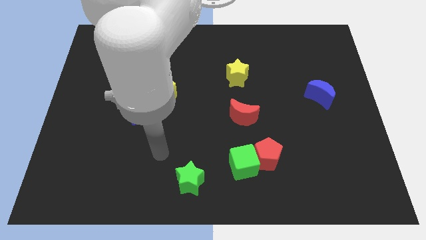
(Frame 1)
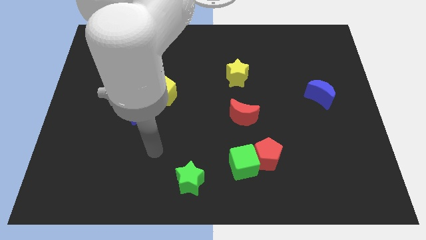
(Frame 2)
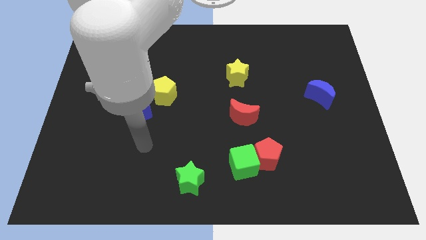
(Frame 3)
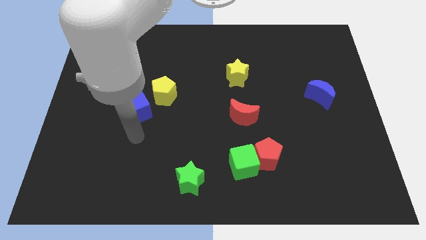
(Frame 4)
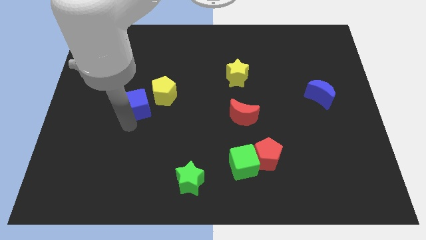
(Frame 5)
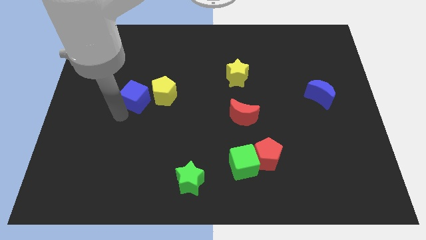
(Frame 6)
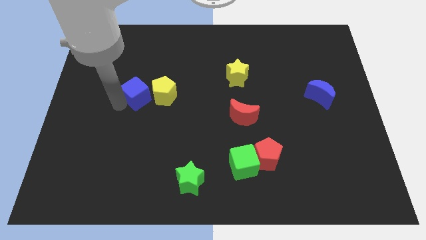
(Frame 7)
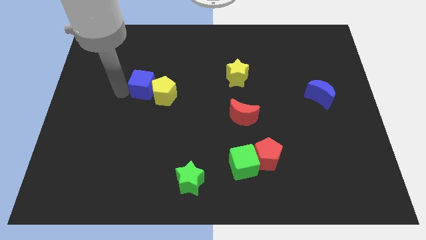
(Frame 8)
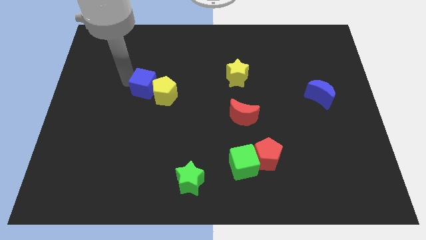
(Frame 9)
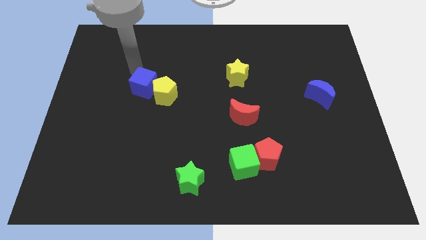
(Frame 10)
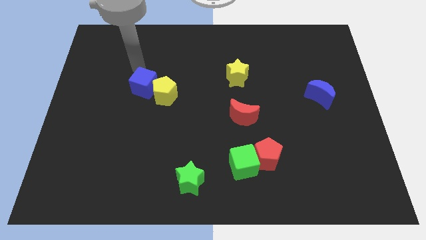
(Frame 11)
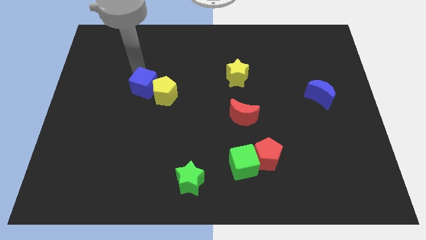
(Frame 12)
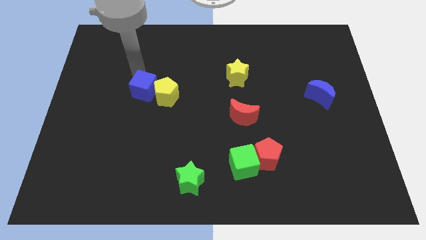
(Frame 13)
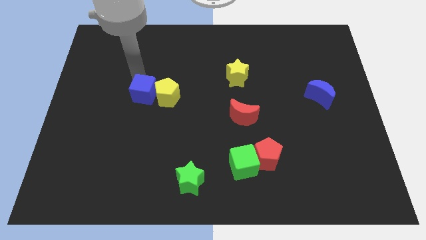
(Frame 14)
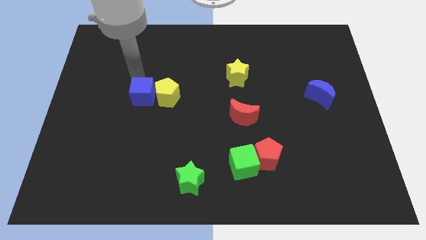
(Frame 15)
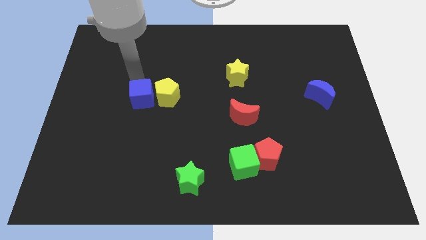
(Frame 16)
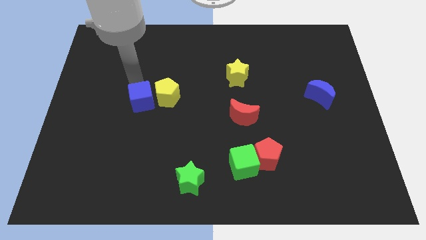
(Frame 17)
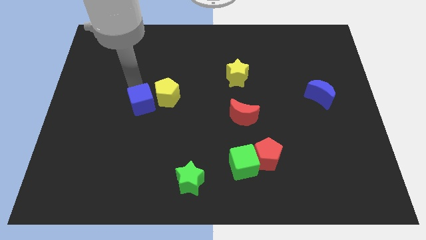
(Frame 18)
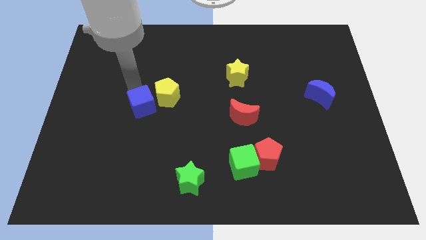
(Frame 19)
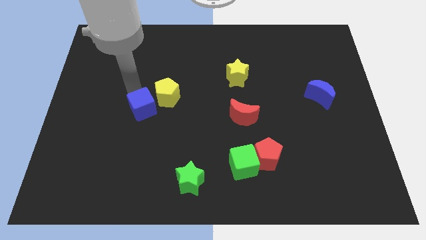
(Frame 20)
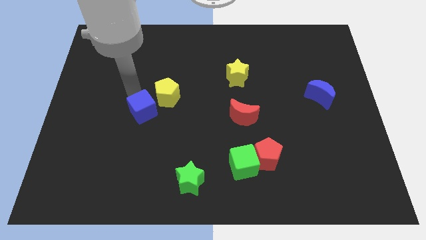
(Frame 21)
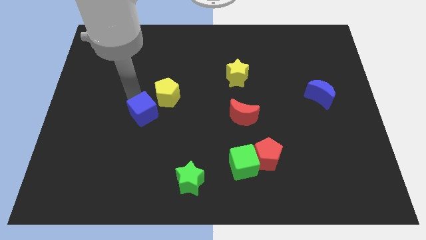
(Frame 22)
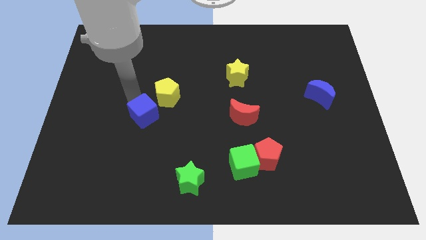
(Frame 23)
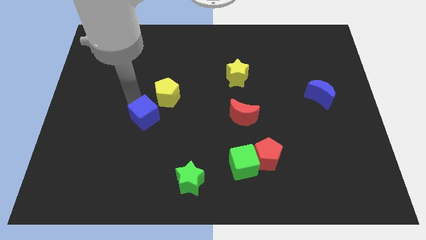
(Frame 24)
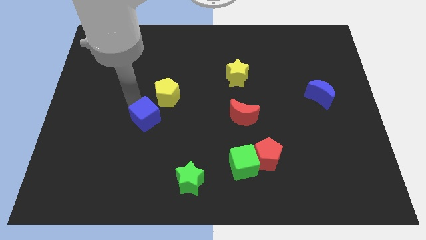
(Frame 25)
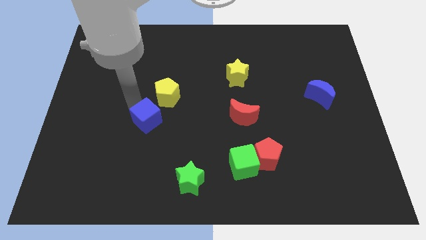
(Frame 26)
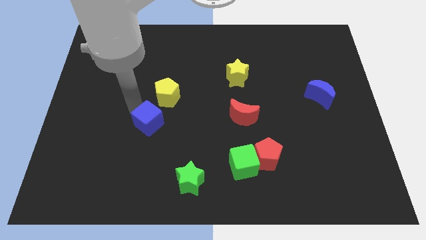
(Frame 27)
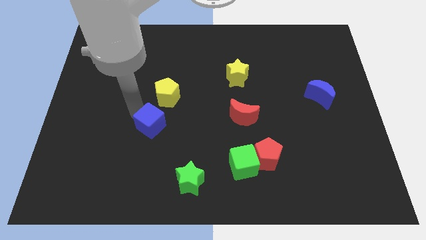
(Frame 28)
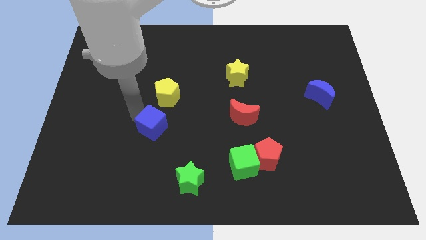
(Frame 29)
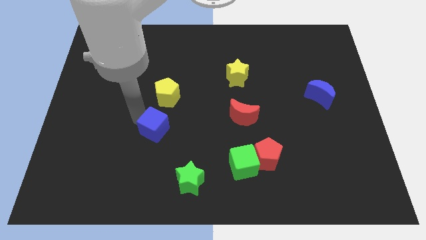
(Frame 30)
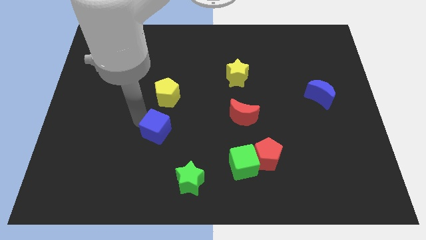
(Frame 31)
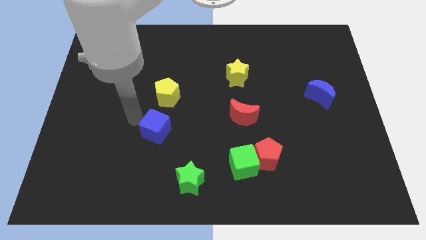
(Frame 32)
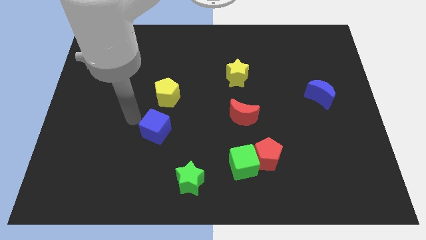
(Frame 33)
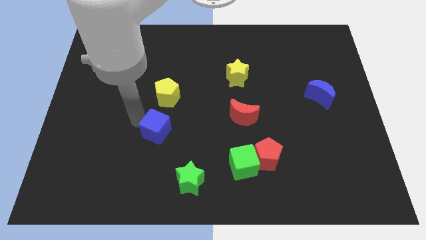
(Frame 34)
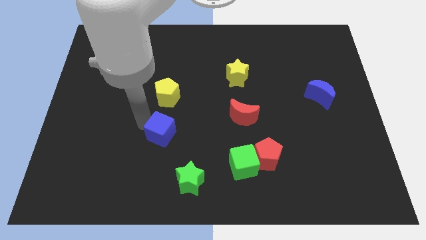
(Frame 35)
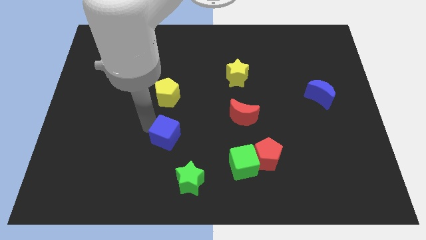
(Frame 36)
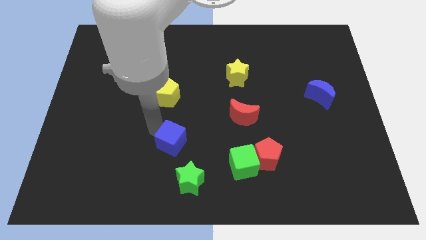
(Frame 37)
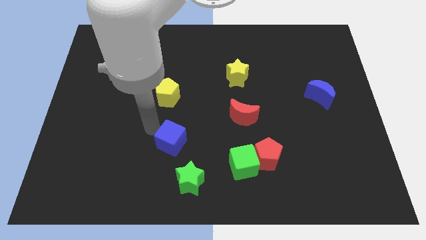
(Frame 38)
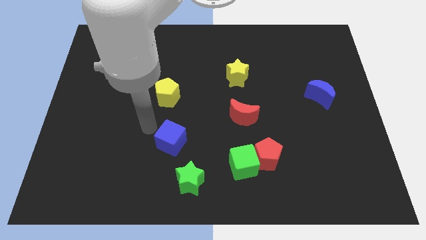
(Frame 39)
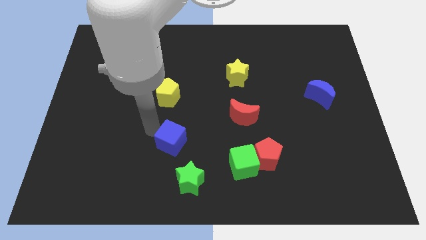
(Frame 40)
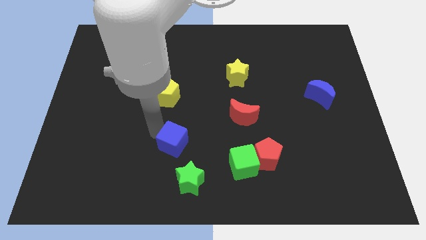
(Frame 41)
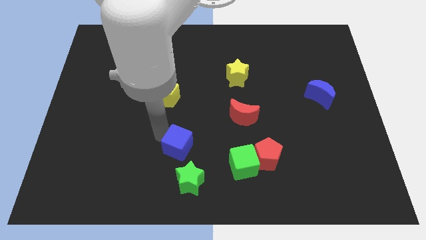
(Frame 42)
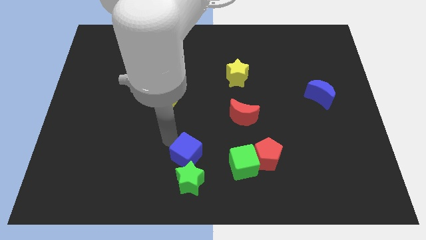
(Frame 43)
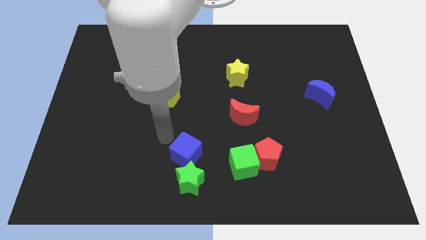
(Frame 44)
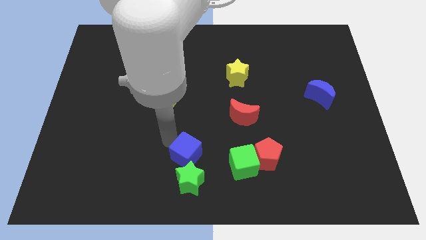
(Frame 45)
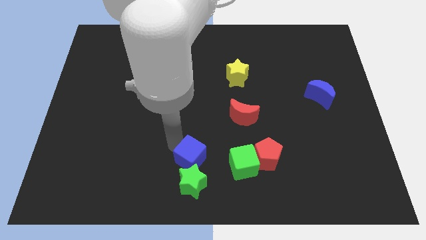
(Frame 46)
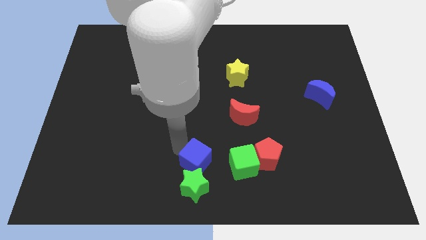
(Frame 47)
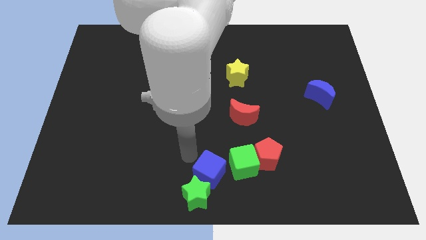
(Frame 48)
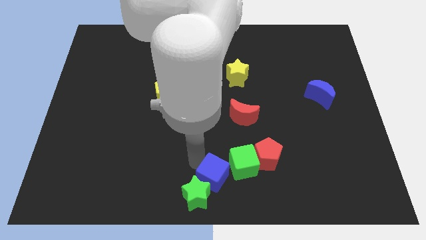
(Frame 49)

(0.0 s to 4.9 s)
push the blue cube to the right of the green star

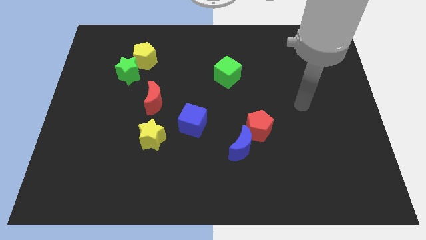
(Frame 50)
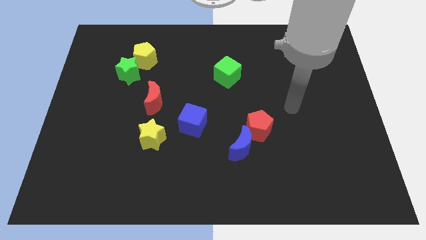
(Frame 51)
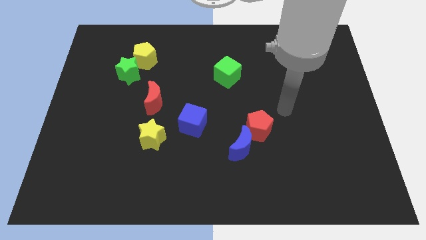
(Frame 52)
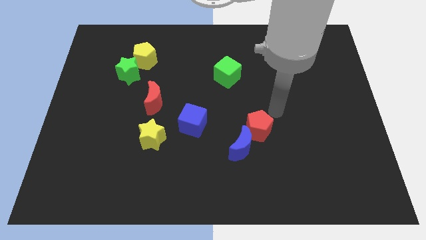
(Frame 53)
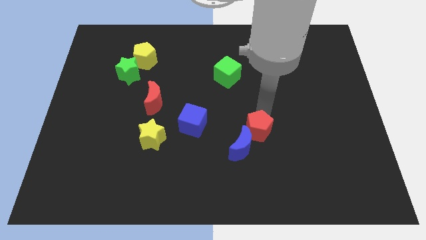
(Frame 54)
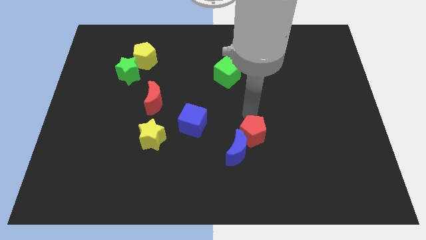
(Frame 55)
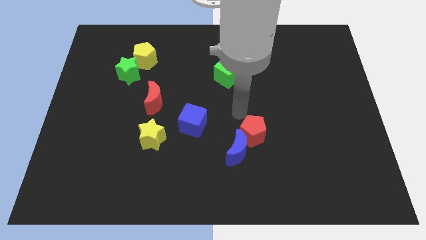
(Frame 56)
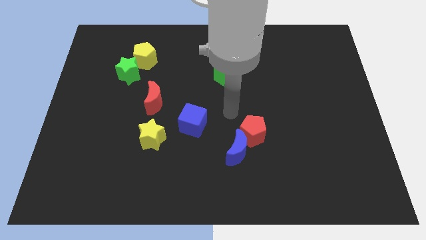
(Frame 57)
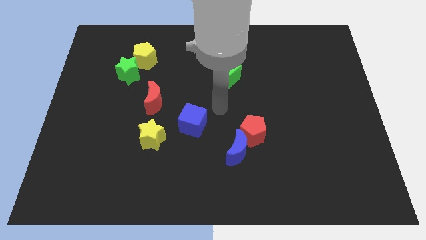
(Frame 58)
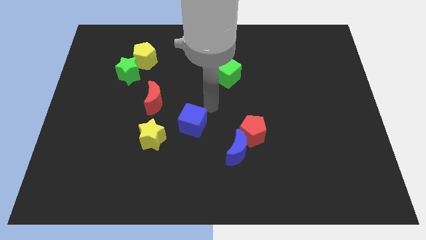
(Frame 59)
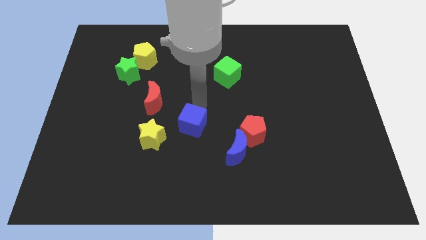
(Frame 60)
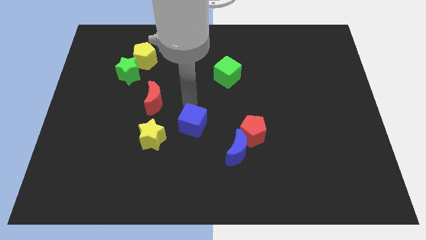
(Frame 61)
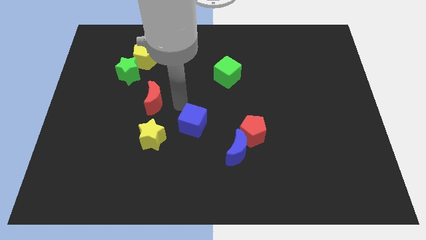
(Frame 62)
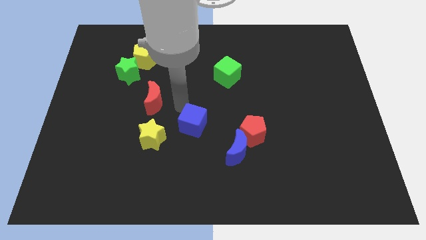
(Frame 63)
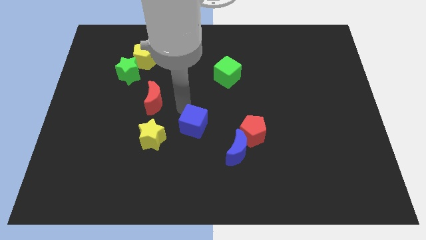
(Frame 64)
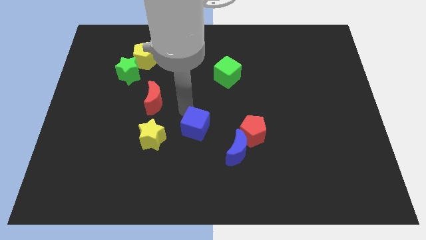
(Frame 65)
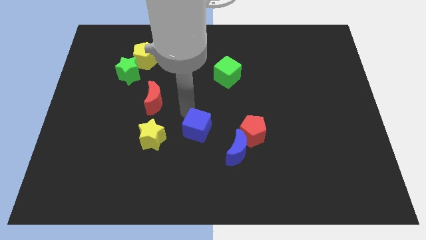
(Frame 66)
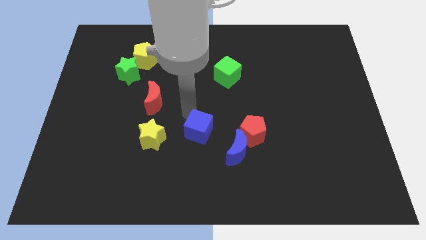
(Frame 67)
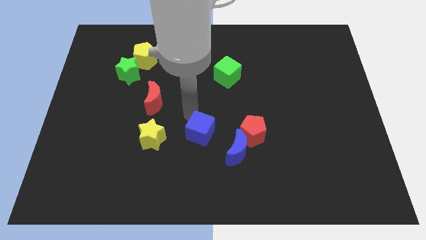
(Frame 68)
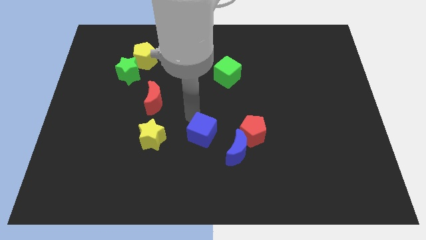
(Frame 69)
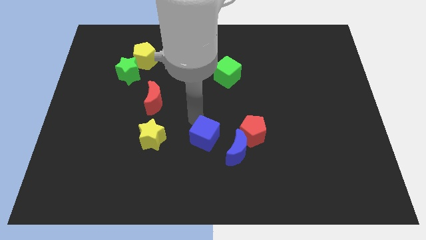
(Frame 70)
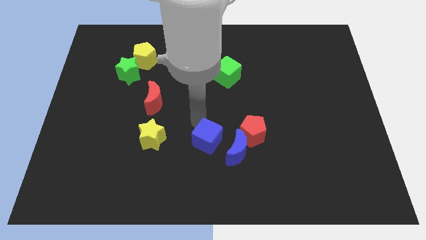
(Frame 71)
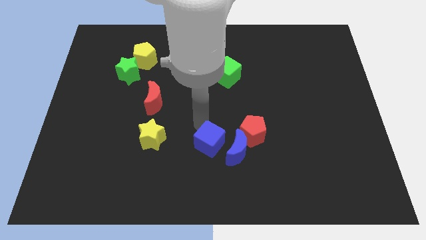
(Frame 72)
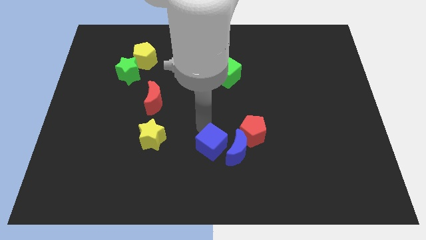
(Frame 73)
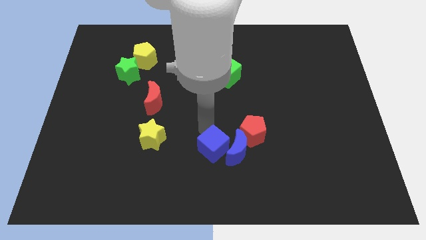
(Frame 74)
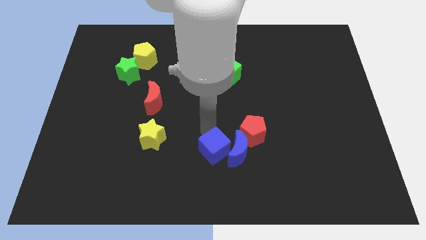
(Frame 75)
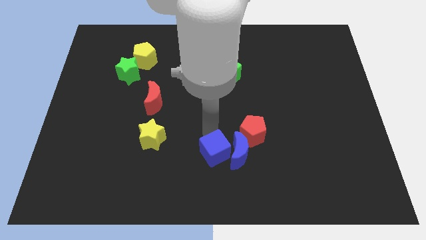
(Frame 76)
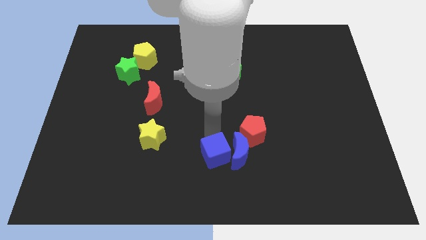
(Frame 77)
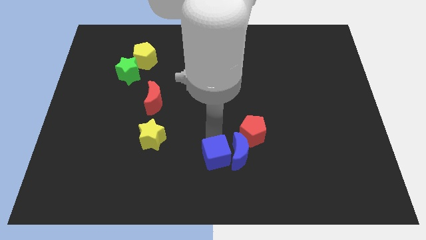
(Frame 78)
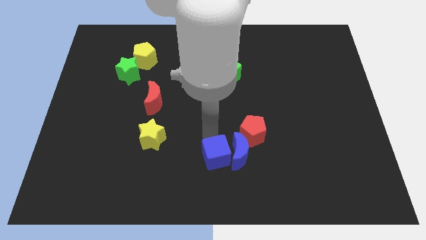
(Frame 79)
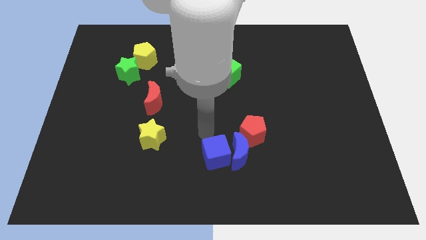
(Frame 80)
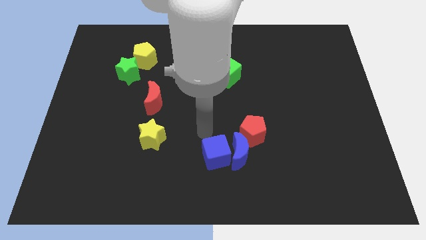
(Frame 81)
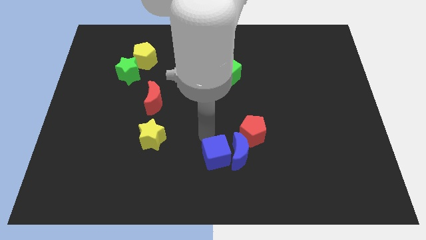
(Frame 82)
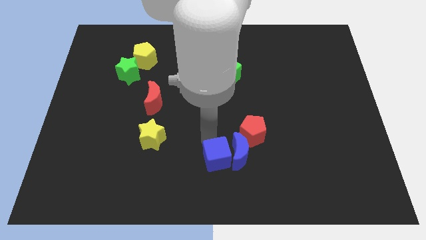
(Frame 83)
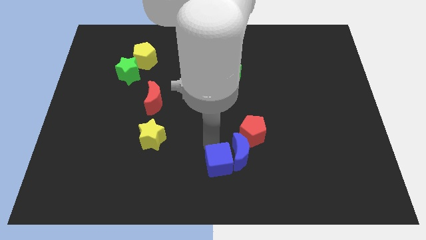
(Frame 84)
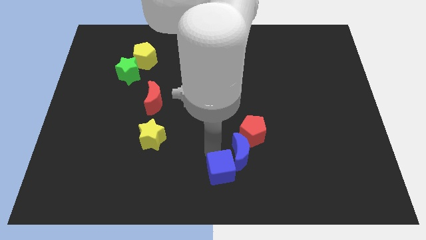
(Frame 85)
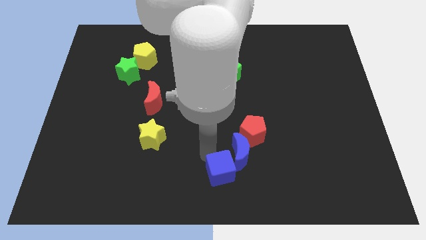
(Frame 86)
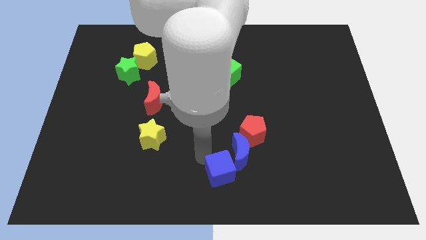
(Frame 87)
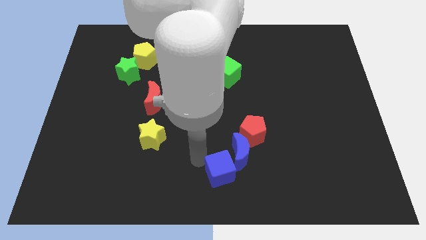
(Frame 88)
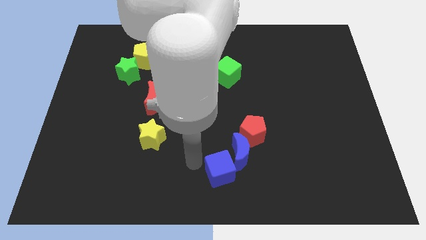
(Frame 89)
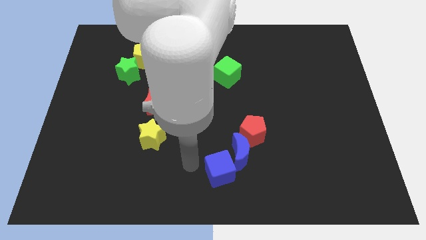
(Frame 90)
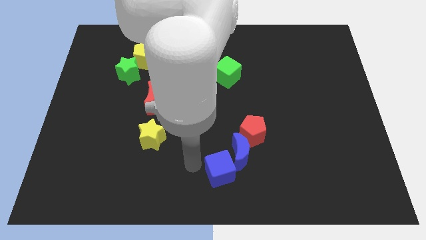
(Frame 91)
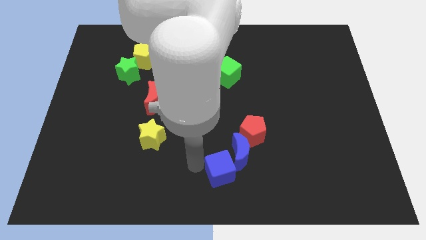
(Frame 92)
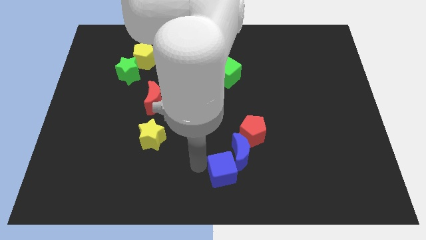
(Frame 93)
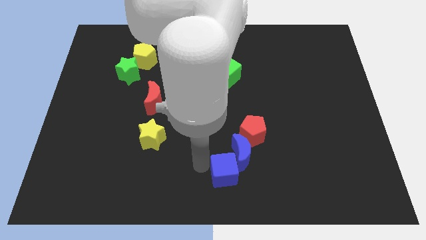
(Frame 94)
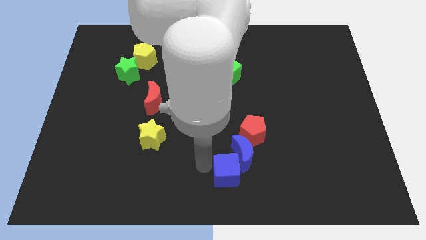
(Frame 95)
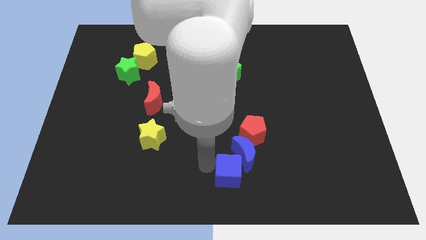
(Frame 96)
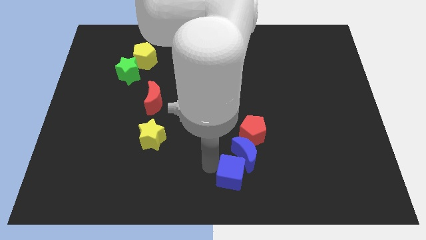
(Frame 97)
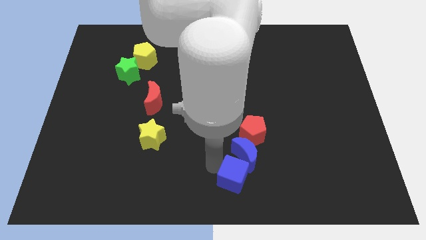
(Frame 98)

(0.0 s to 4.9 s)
move the blue cube to the bottom of the red pentagon
